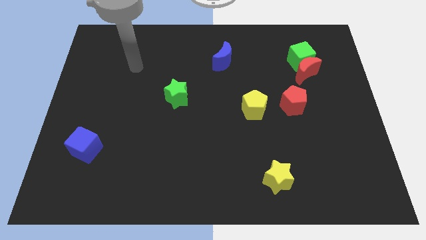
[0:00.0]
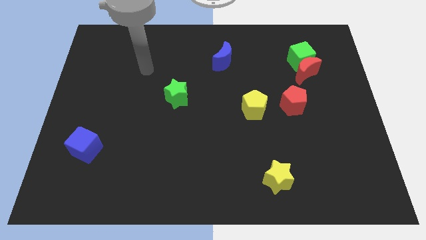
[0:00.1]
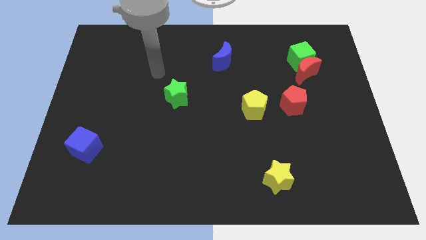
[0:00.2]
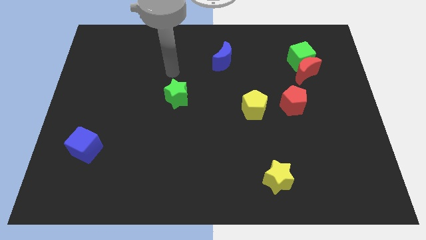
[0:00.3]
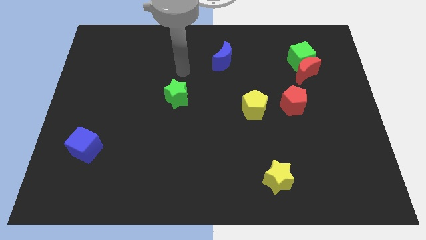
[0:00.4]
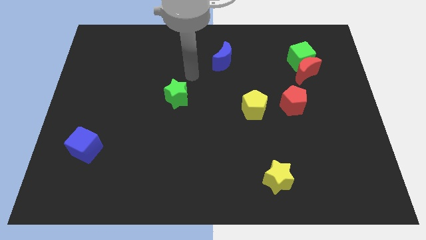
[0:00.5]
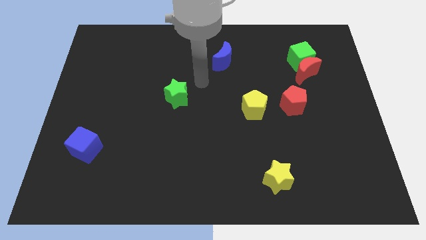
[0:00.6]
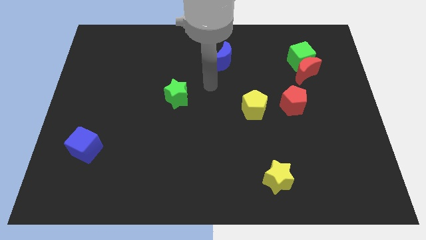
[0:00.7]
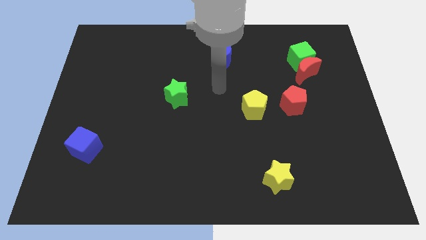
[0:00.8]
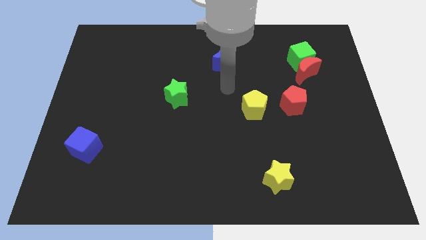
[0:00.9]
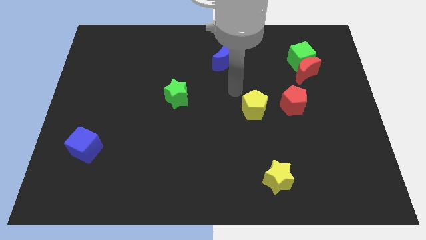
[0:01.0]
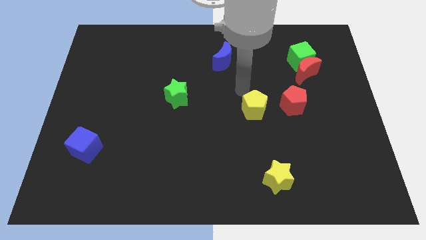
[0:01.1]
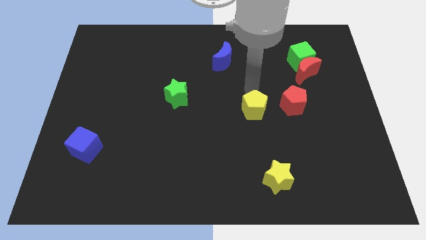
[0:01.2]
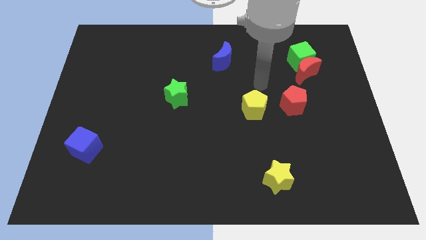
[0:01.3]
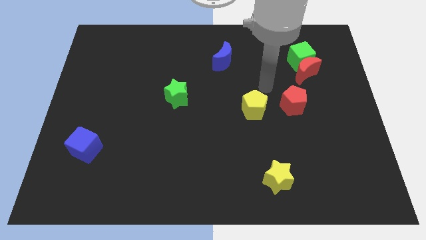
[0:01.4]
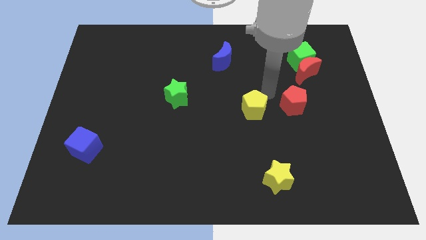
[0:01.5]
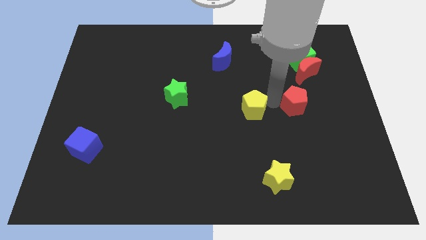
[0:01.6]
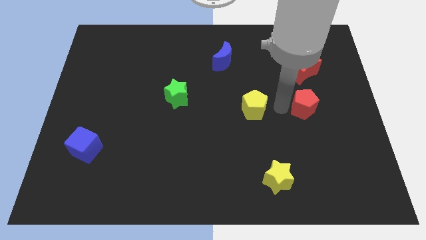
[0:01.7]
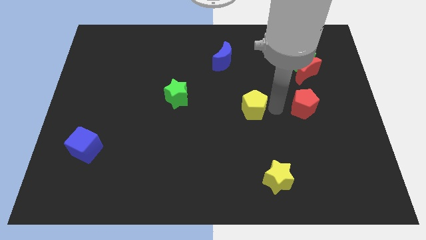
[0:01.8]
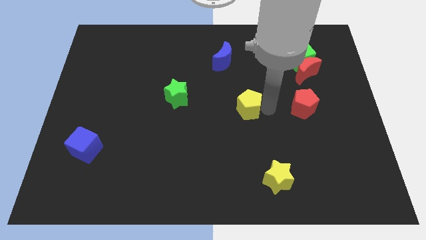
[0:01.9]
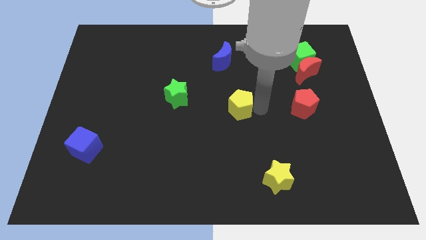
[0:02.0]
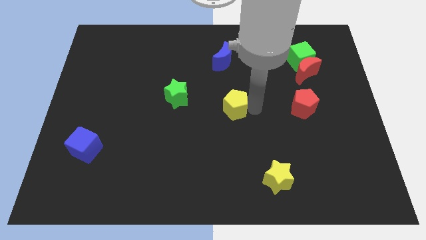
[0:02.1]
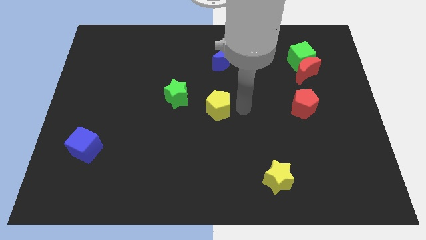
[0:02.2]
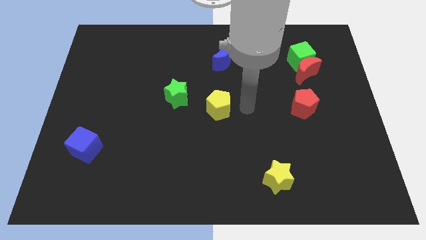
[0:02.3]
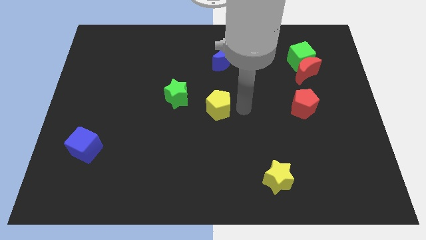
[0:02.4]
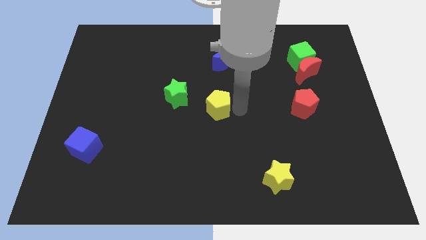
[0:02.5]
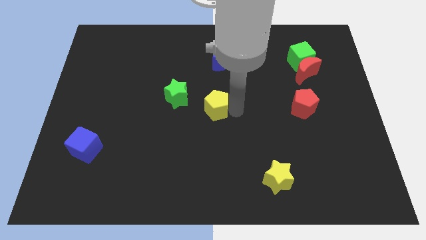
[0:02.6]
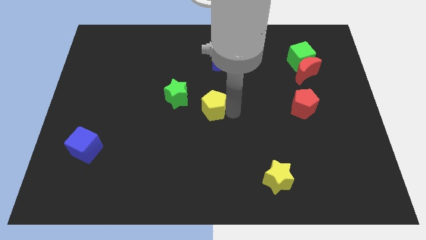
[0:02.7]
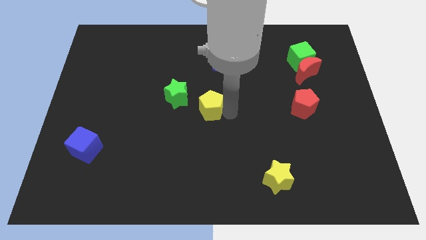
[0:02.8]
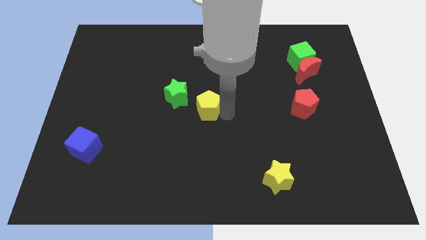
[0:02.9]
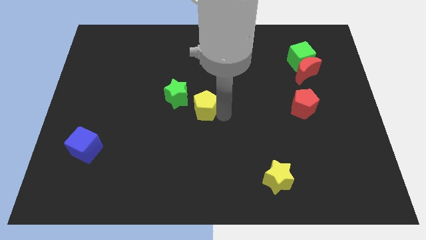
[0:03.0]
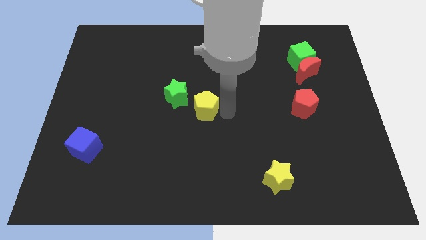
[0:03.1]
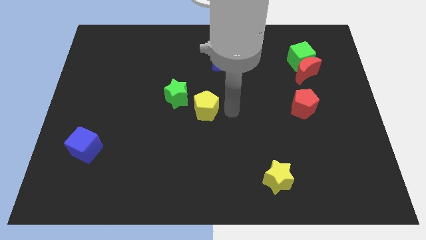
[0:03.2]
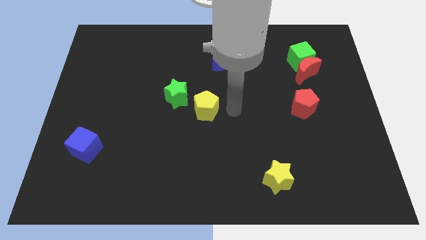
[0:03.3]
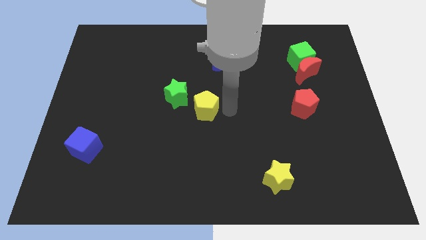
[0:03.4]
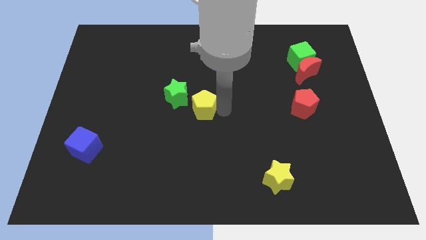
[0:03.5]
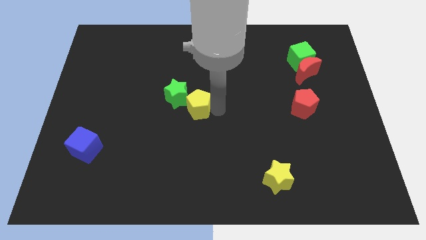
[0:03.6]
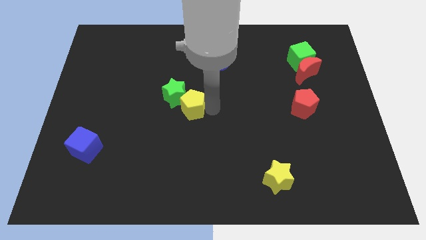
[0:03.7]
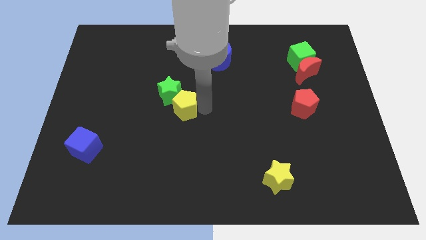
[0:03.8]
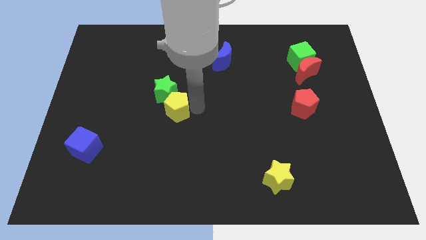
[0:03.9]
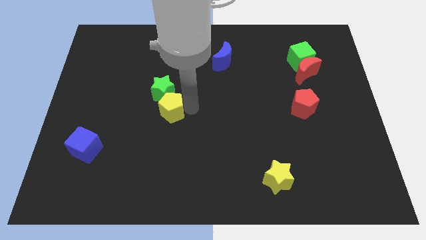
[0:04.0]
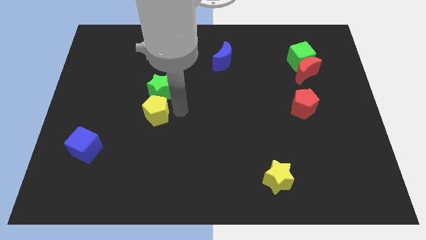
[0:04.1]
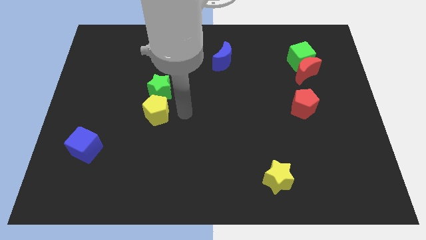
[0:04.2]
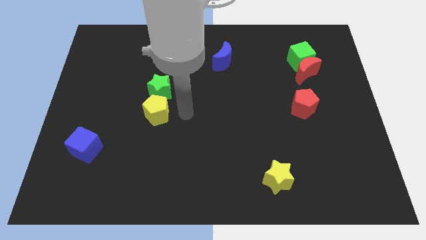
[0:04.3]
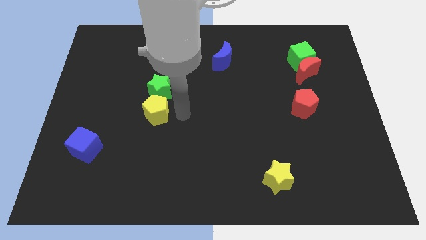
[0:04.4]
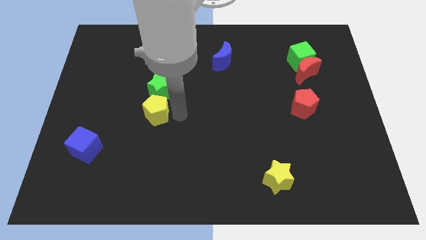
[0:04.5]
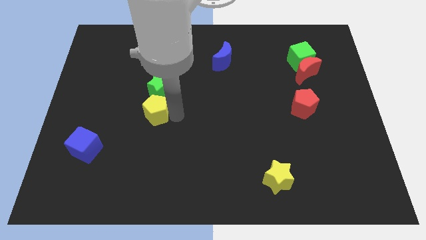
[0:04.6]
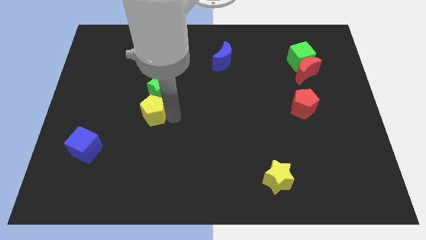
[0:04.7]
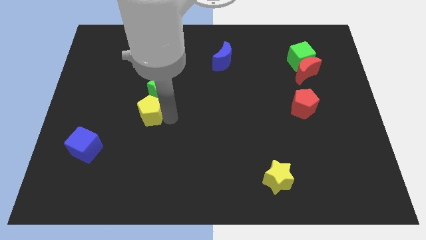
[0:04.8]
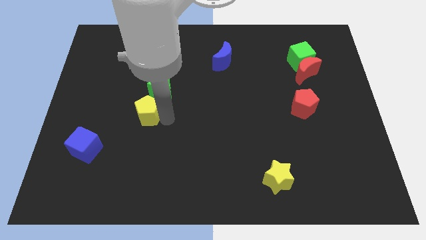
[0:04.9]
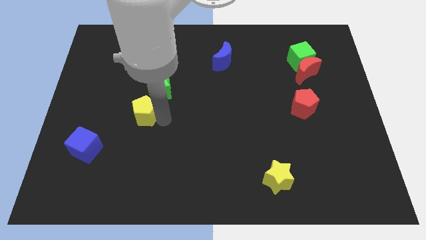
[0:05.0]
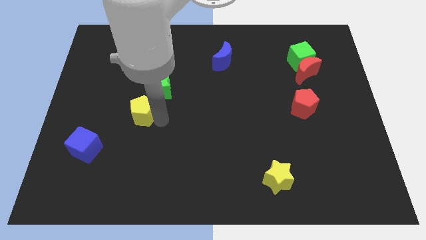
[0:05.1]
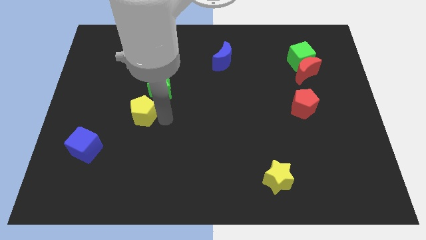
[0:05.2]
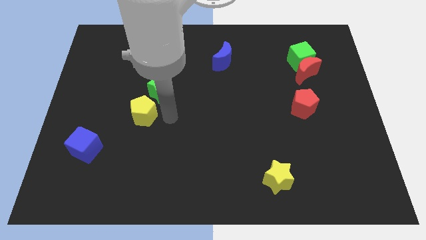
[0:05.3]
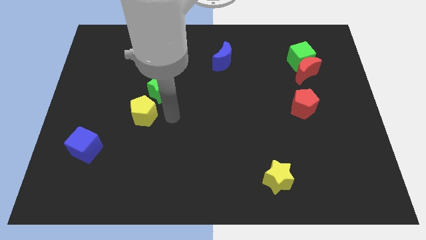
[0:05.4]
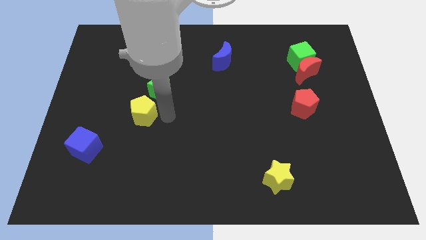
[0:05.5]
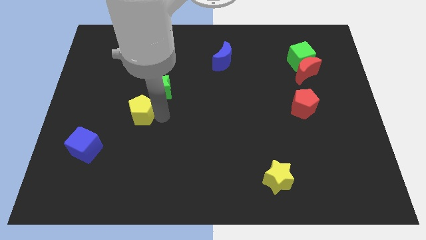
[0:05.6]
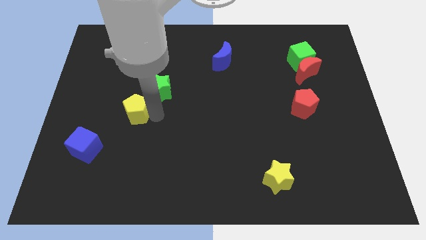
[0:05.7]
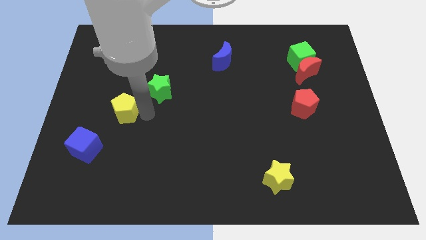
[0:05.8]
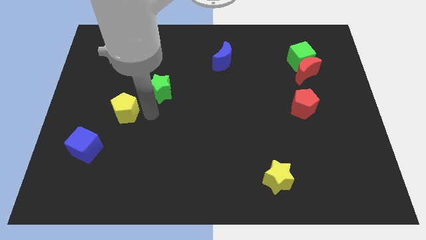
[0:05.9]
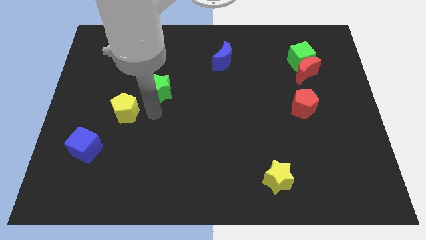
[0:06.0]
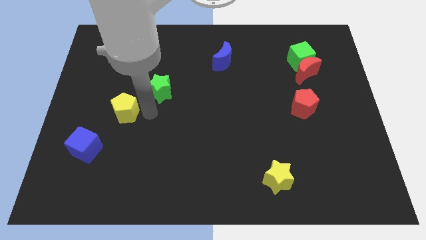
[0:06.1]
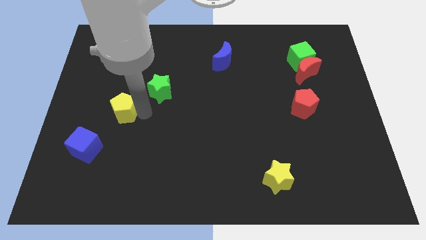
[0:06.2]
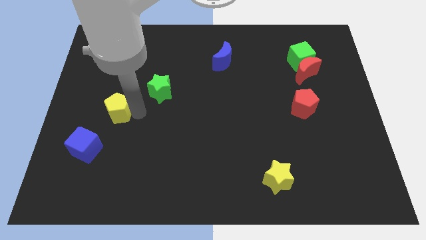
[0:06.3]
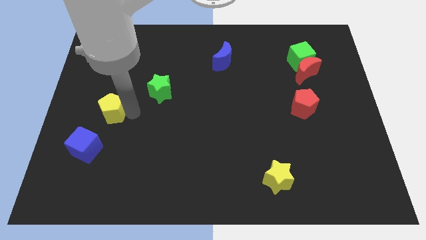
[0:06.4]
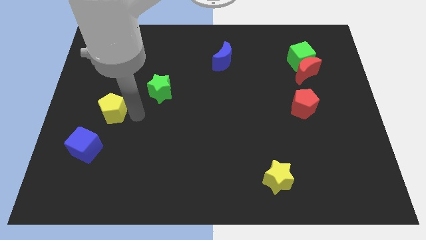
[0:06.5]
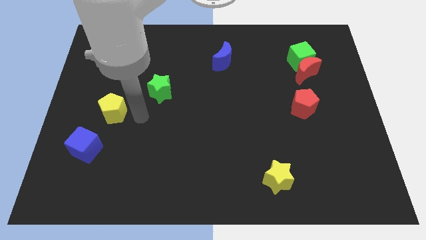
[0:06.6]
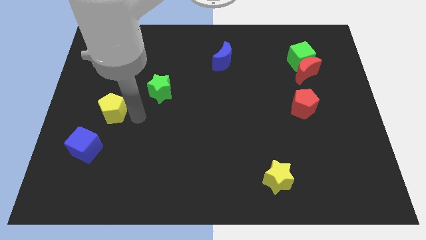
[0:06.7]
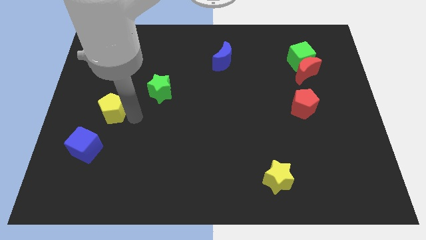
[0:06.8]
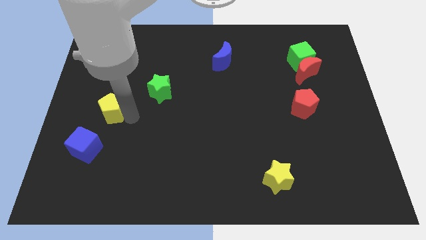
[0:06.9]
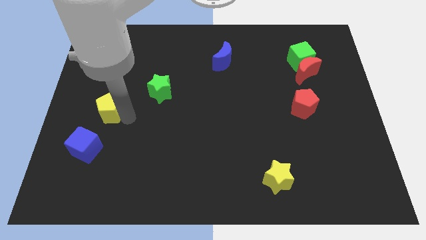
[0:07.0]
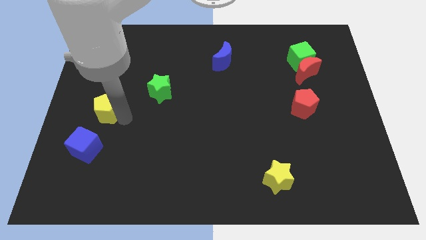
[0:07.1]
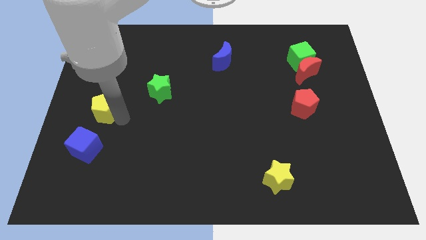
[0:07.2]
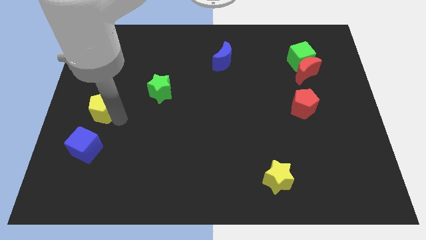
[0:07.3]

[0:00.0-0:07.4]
push the yellow pentagon to the left side

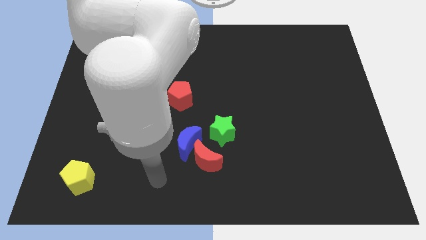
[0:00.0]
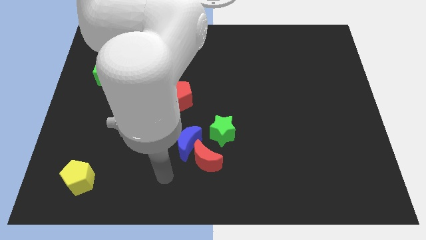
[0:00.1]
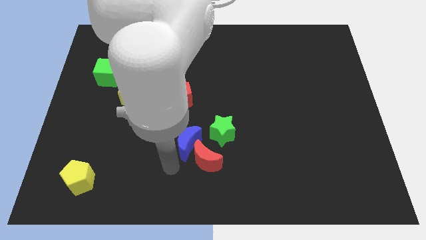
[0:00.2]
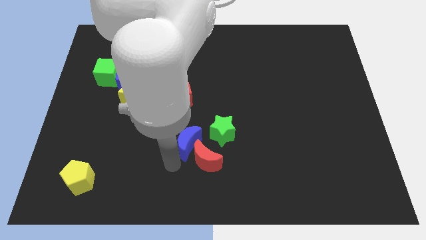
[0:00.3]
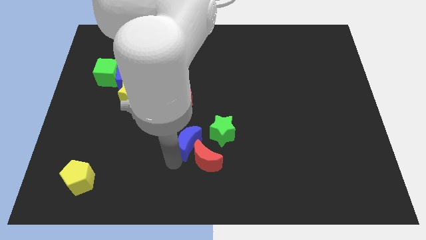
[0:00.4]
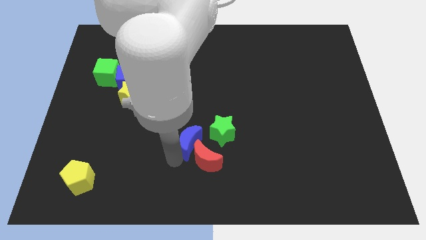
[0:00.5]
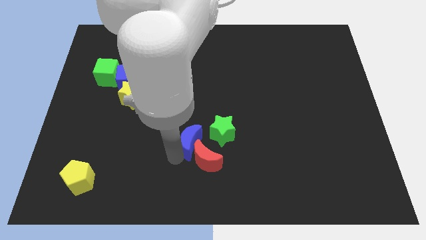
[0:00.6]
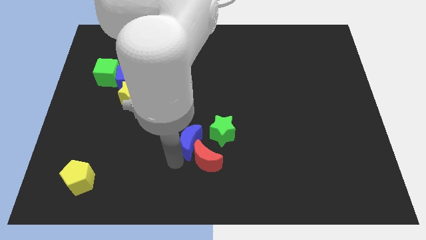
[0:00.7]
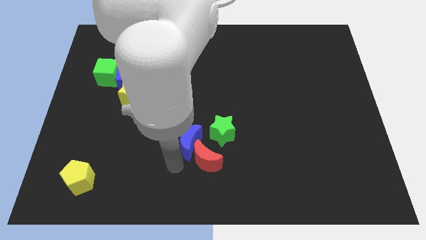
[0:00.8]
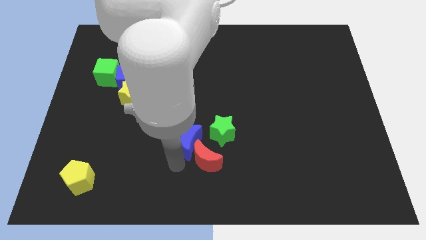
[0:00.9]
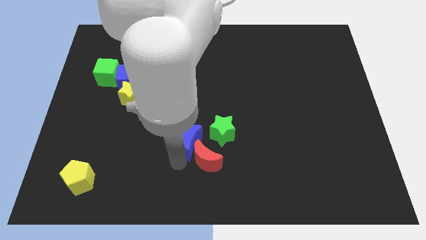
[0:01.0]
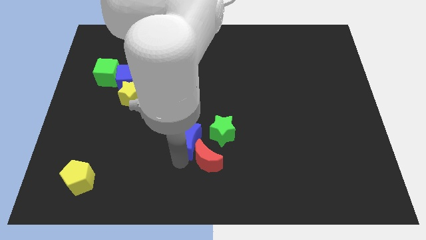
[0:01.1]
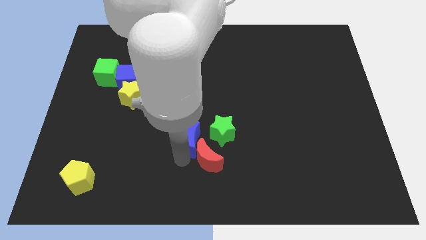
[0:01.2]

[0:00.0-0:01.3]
slide the blue moon to the middle of the board
